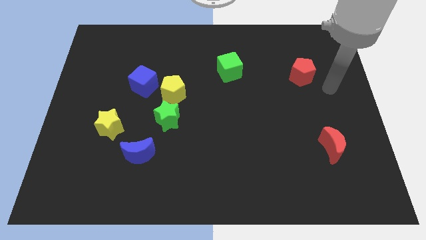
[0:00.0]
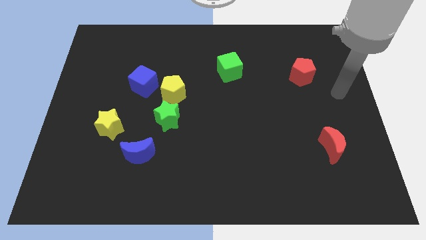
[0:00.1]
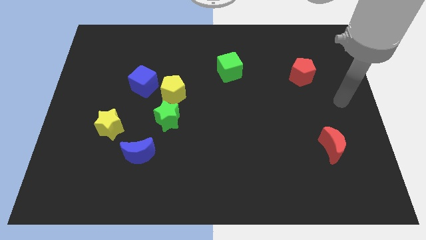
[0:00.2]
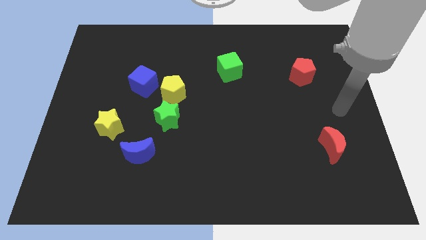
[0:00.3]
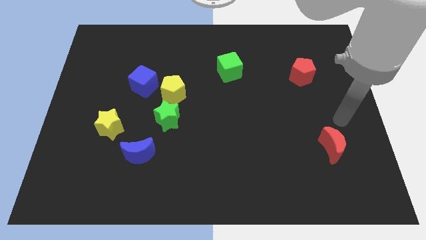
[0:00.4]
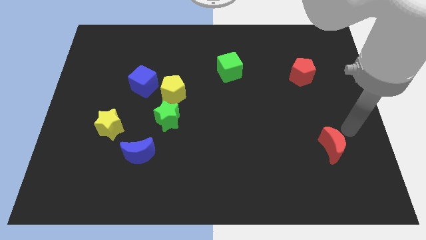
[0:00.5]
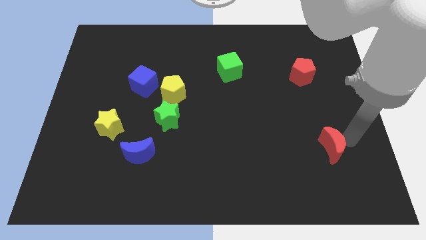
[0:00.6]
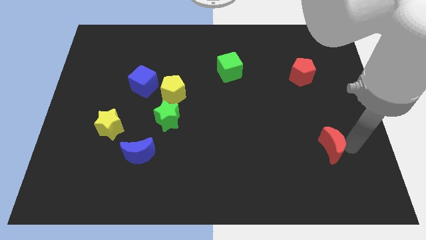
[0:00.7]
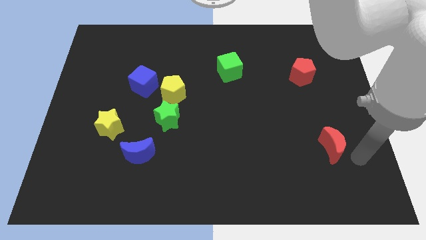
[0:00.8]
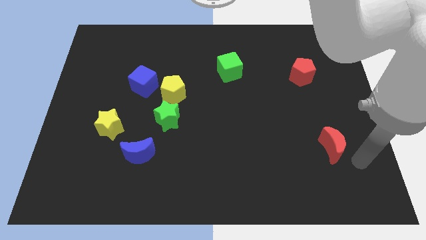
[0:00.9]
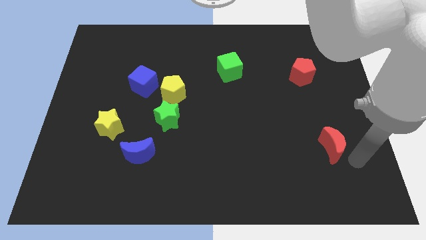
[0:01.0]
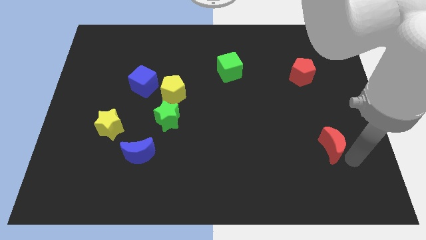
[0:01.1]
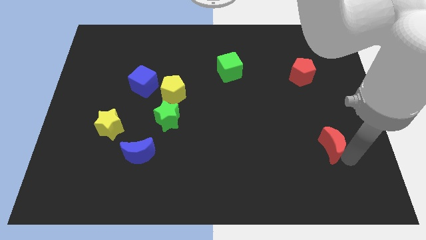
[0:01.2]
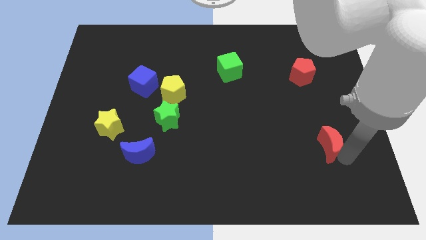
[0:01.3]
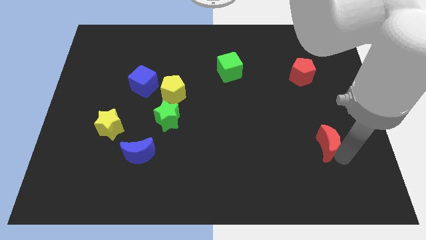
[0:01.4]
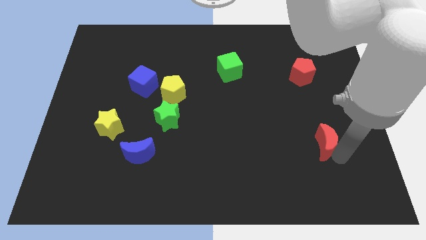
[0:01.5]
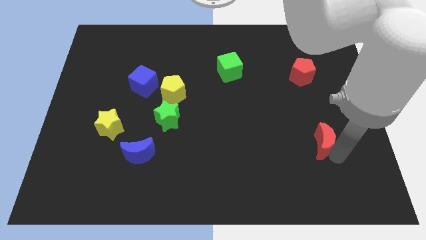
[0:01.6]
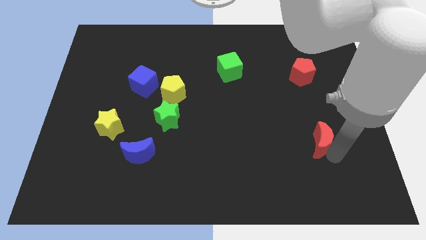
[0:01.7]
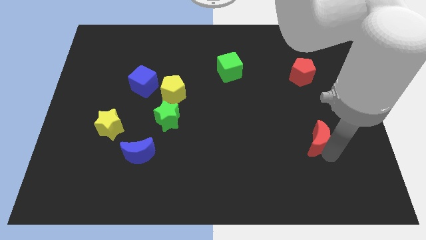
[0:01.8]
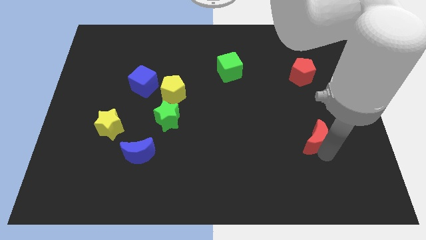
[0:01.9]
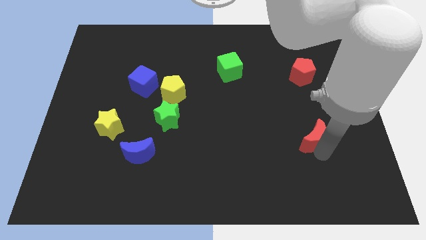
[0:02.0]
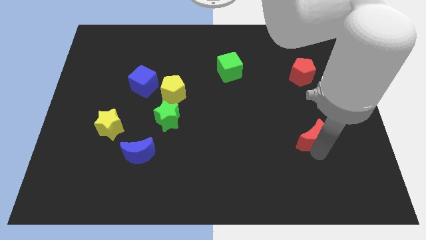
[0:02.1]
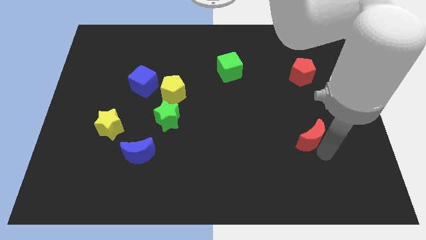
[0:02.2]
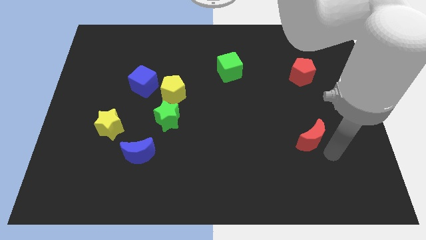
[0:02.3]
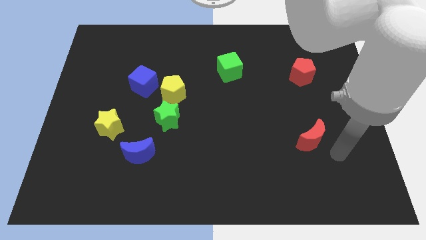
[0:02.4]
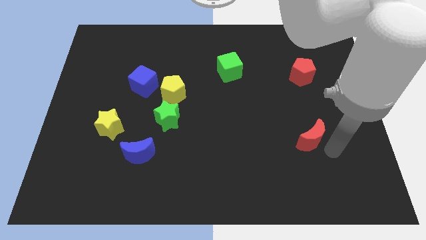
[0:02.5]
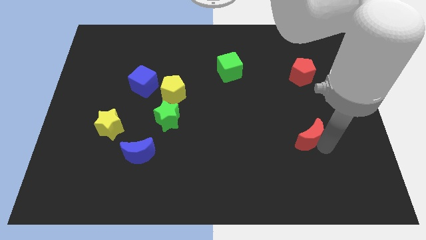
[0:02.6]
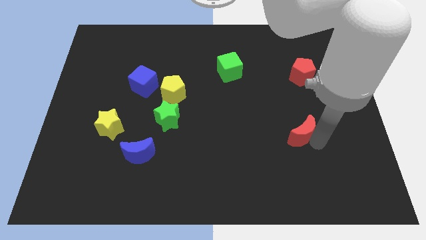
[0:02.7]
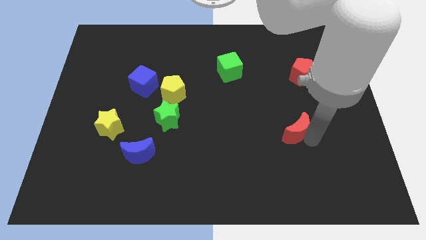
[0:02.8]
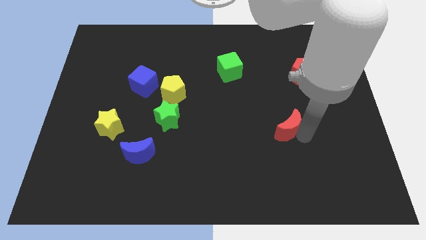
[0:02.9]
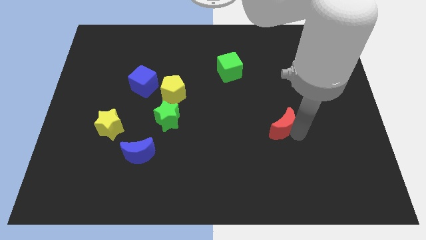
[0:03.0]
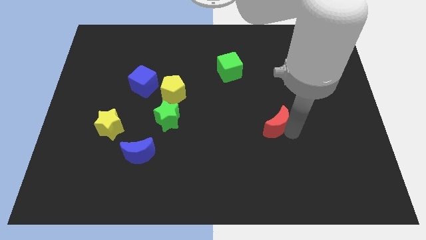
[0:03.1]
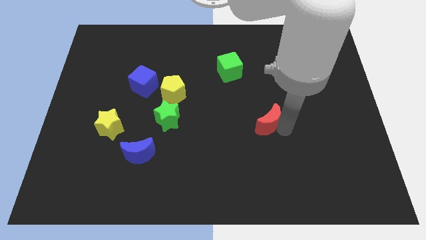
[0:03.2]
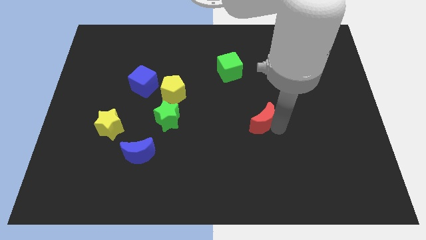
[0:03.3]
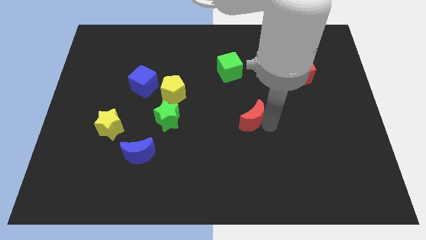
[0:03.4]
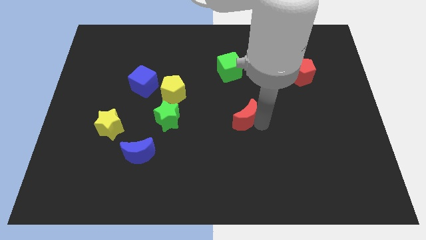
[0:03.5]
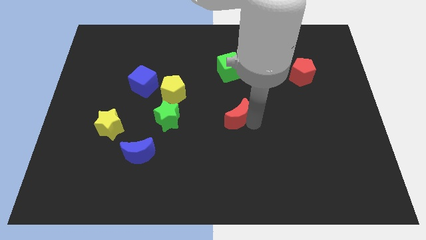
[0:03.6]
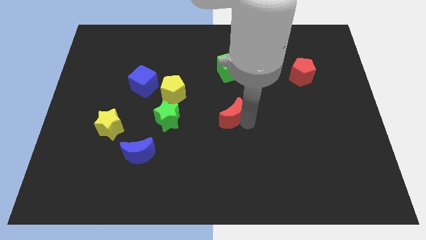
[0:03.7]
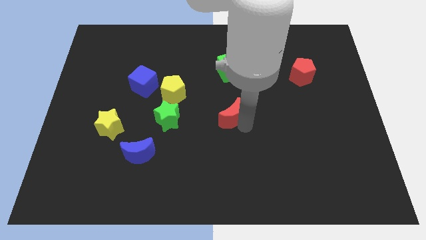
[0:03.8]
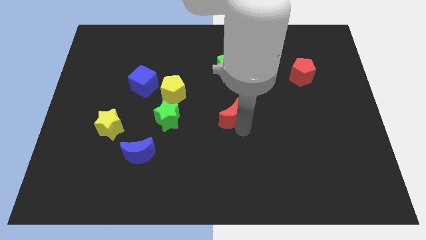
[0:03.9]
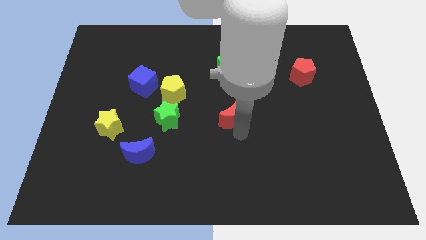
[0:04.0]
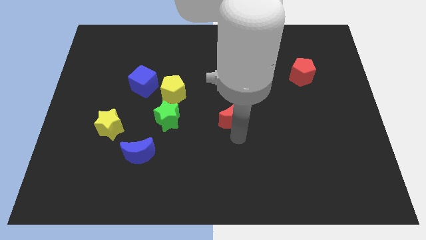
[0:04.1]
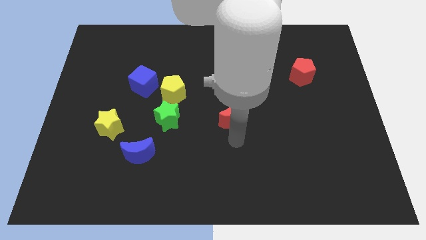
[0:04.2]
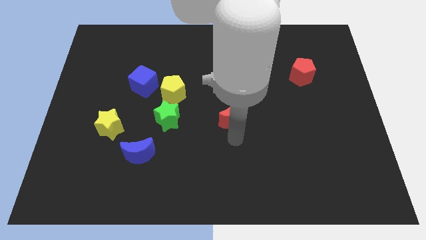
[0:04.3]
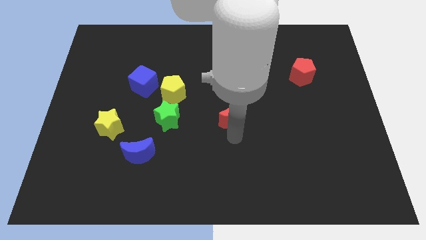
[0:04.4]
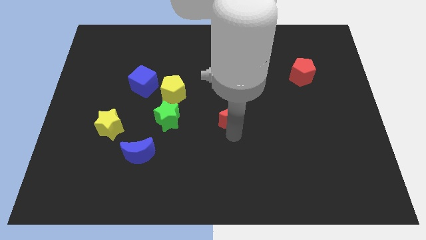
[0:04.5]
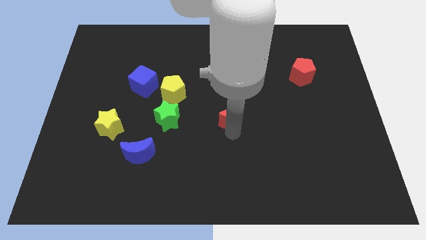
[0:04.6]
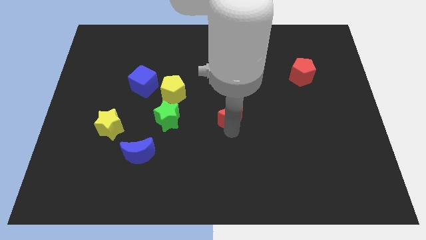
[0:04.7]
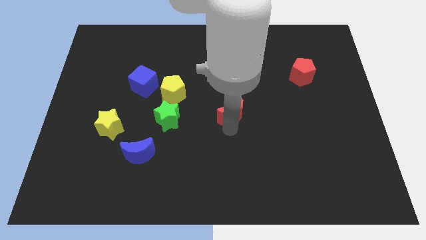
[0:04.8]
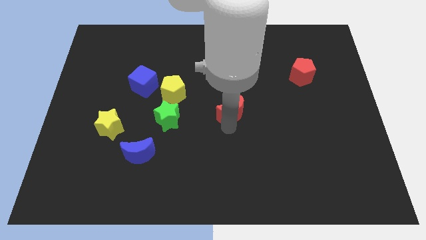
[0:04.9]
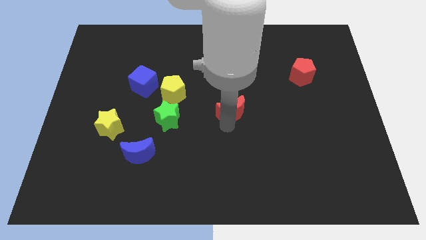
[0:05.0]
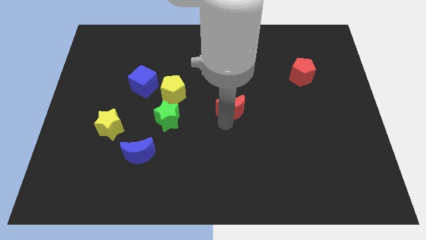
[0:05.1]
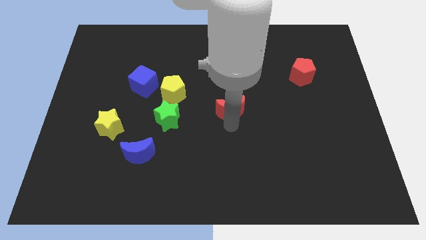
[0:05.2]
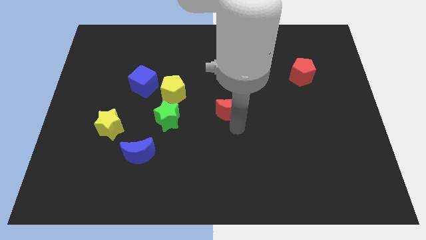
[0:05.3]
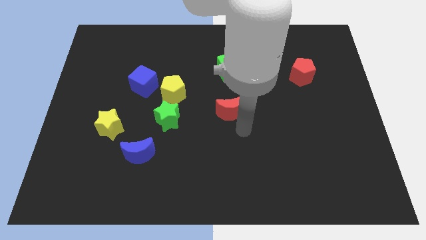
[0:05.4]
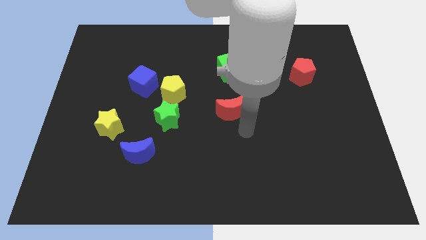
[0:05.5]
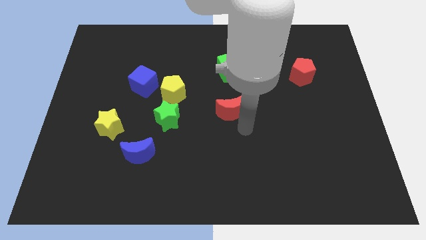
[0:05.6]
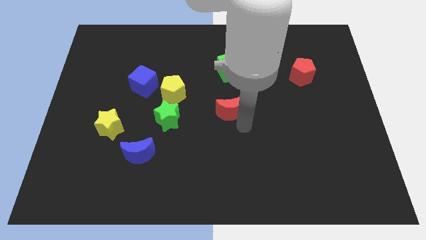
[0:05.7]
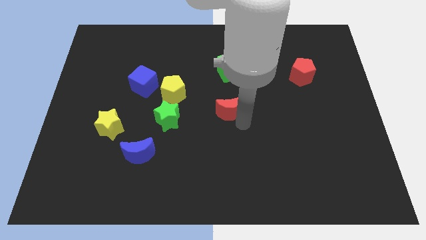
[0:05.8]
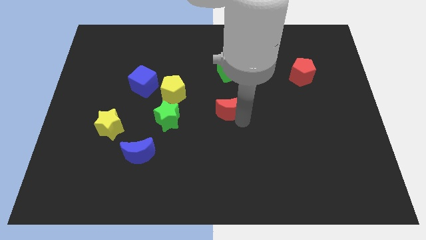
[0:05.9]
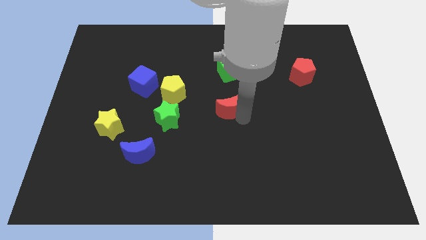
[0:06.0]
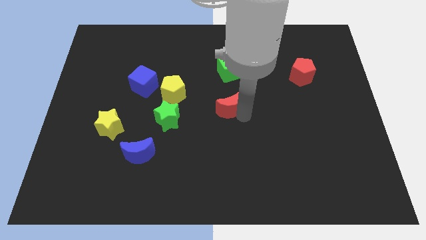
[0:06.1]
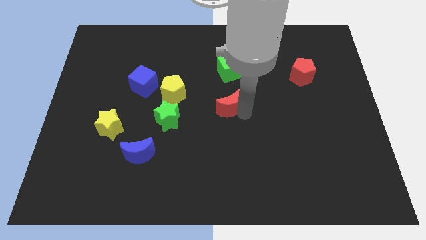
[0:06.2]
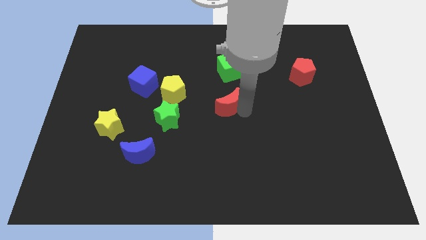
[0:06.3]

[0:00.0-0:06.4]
put the red moon just right of the yellow pentagon

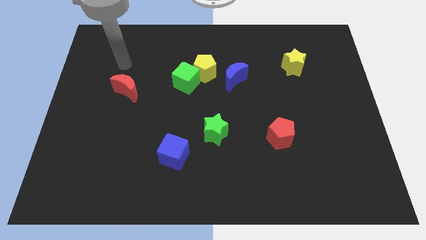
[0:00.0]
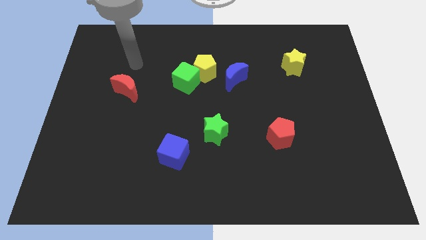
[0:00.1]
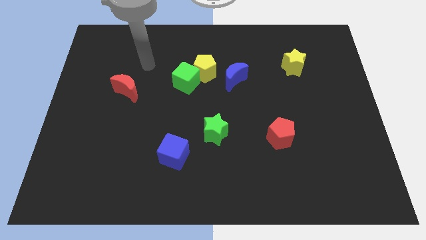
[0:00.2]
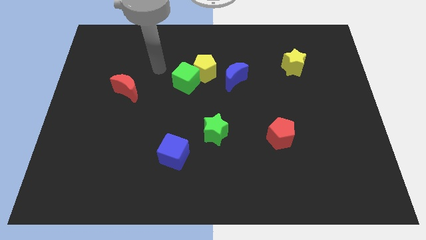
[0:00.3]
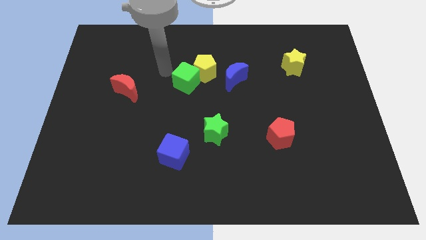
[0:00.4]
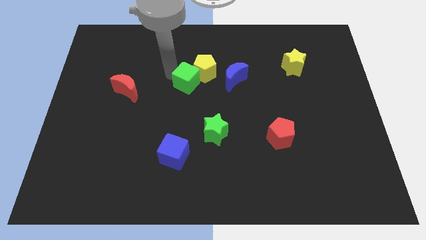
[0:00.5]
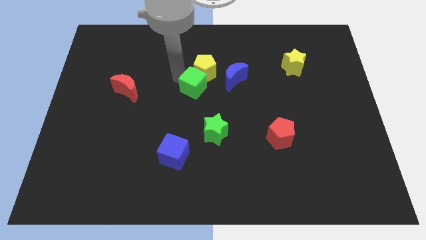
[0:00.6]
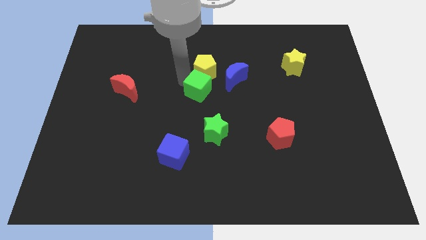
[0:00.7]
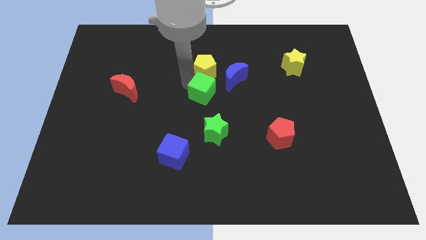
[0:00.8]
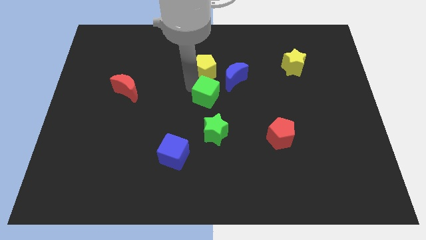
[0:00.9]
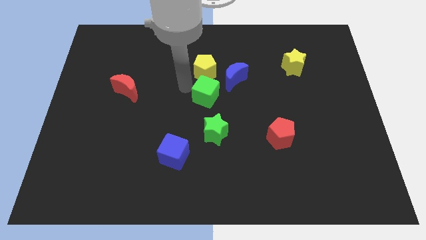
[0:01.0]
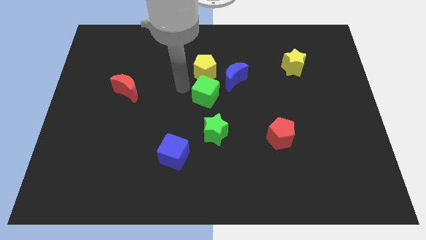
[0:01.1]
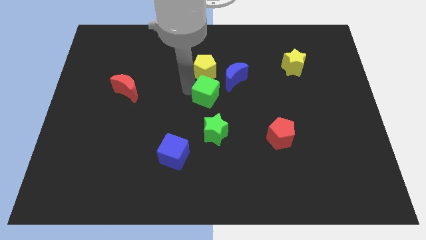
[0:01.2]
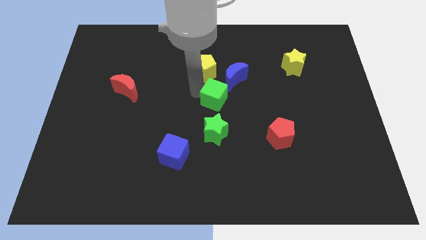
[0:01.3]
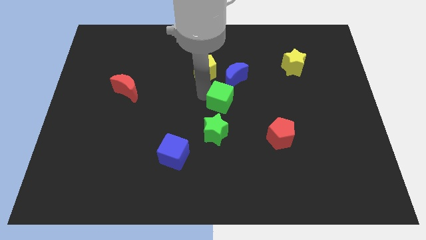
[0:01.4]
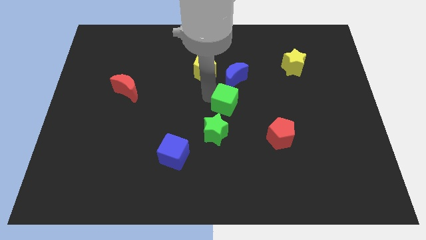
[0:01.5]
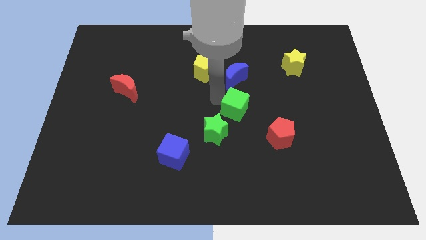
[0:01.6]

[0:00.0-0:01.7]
move the green cube to the top left of the red pentagon
